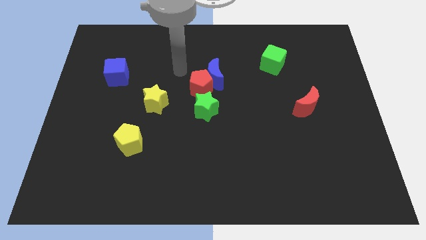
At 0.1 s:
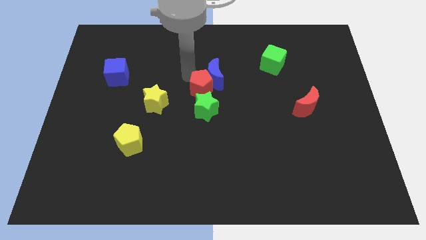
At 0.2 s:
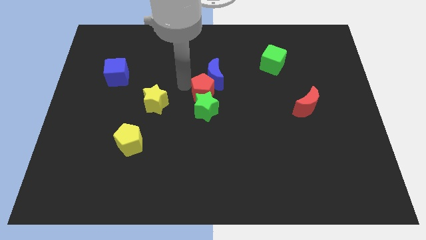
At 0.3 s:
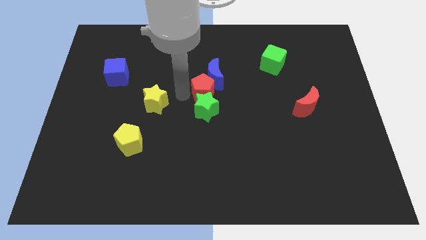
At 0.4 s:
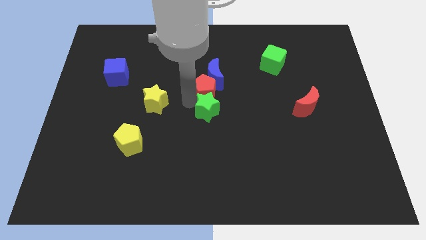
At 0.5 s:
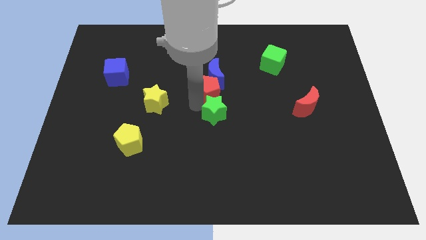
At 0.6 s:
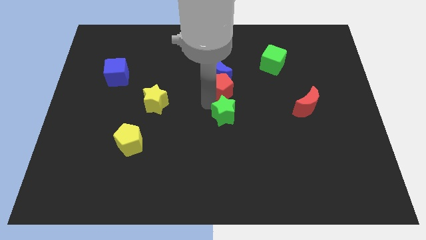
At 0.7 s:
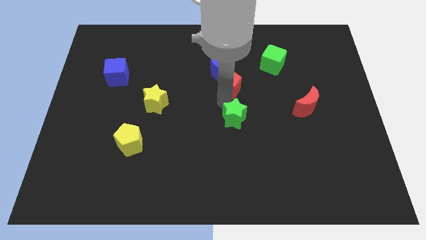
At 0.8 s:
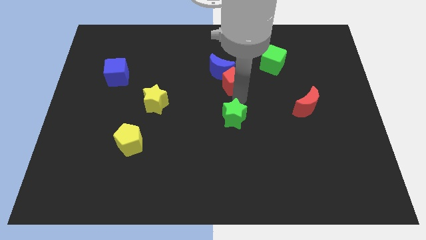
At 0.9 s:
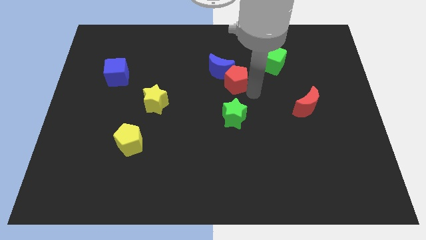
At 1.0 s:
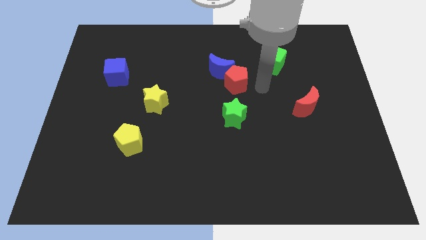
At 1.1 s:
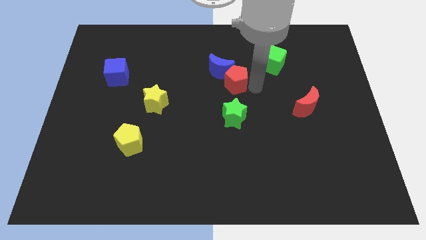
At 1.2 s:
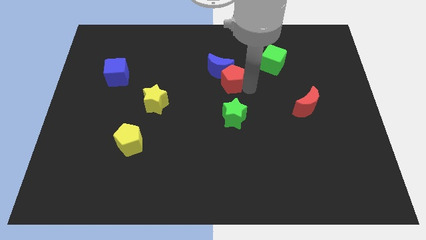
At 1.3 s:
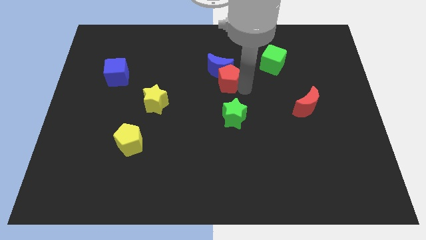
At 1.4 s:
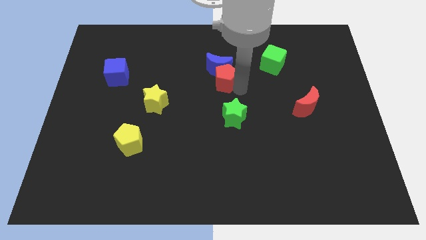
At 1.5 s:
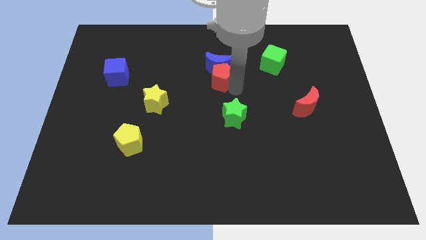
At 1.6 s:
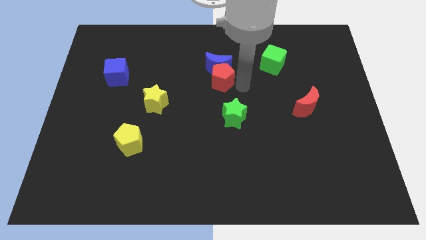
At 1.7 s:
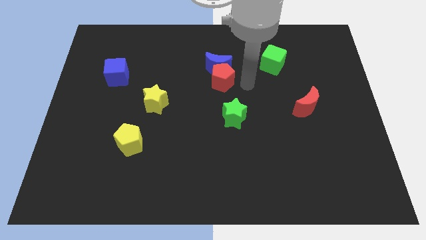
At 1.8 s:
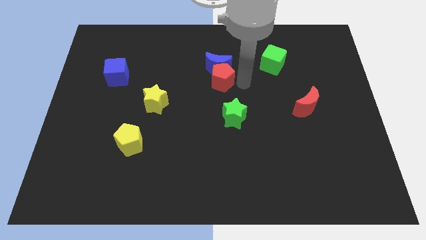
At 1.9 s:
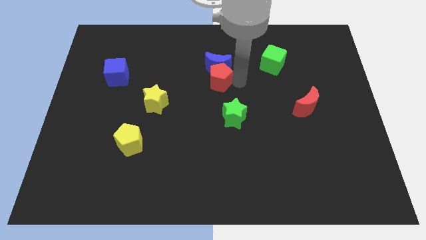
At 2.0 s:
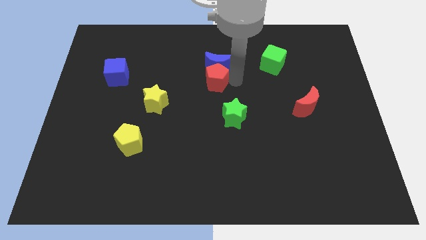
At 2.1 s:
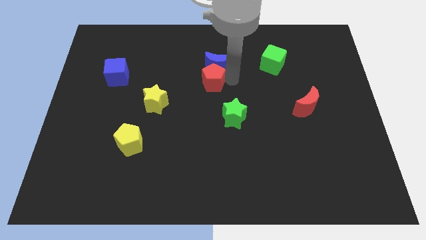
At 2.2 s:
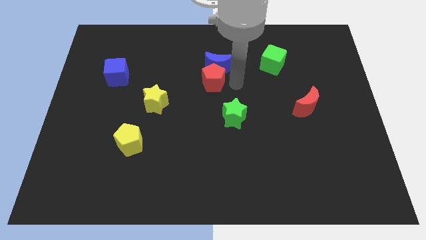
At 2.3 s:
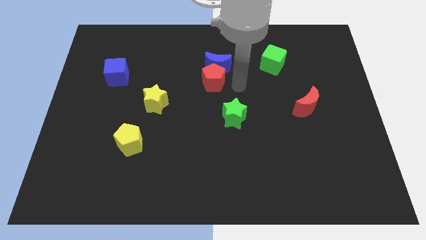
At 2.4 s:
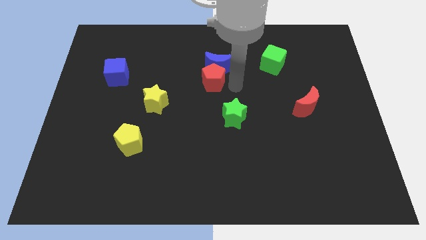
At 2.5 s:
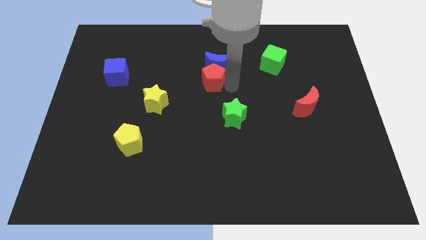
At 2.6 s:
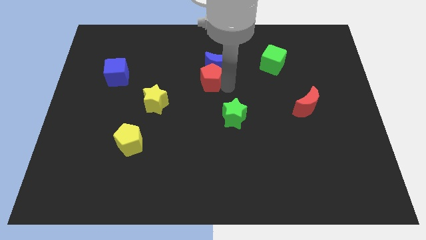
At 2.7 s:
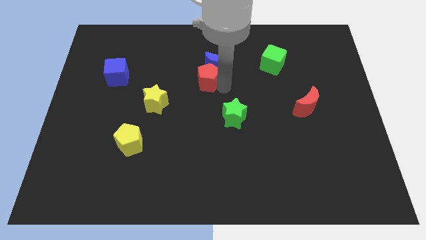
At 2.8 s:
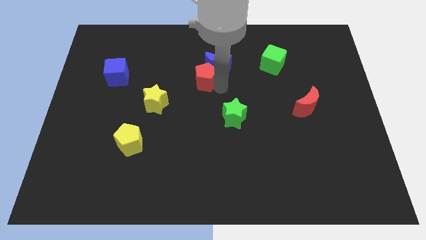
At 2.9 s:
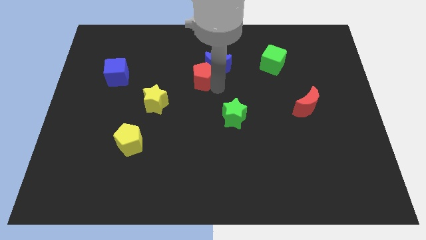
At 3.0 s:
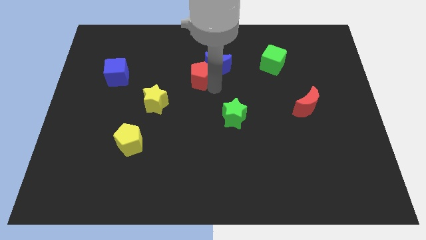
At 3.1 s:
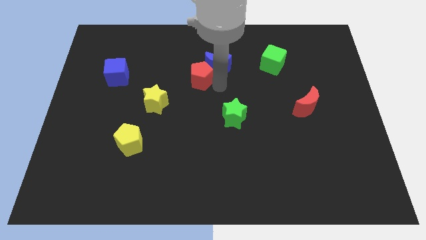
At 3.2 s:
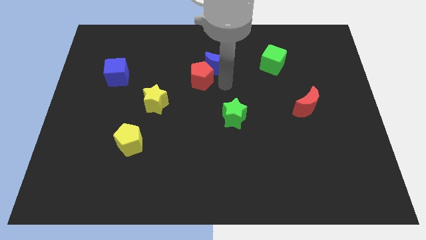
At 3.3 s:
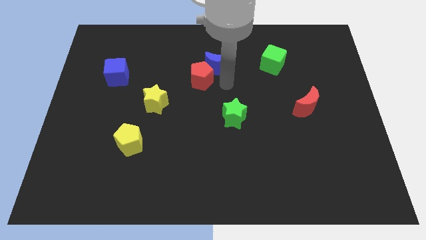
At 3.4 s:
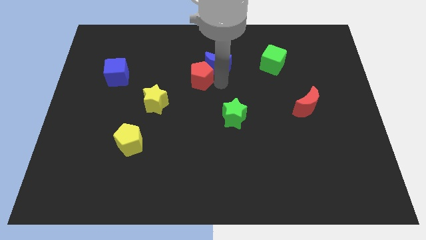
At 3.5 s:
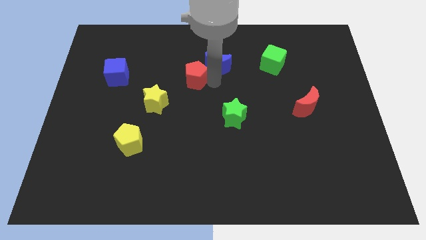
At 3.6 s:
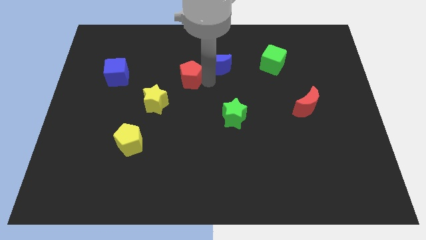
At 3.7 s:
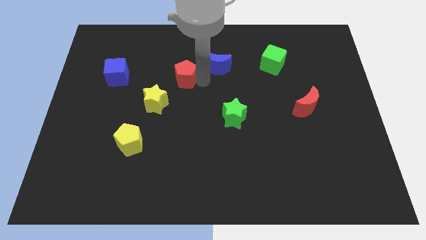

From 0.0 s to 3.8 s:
separate the red pentagon from the blue moon and green star

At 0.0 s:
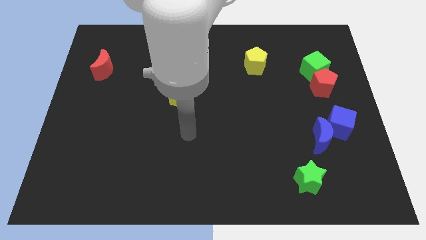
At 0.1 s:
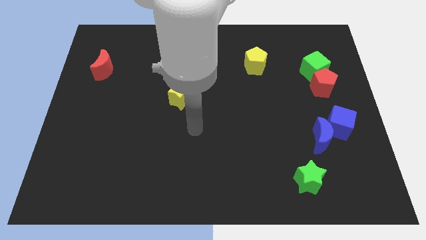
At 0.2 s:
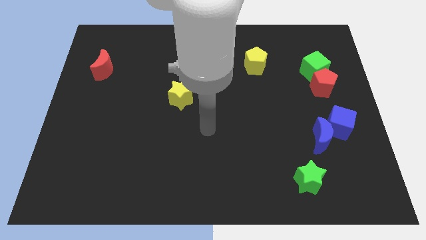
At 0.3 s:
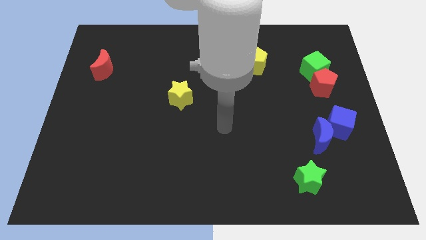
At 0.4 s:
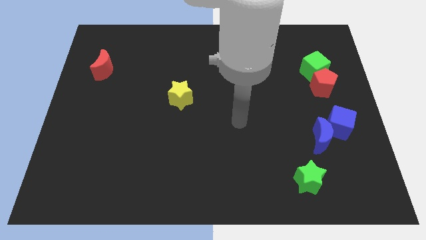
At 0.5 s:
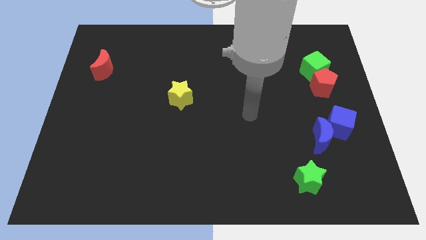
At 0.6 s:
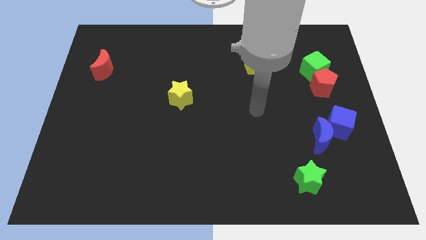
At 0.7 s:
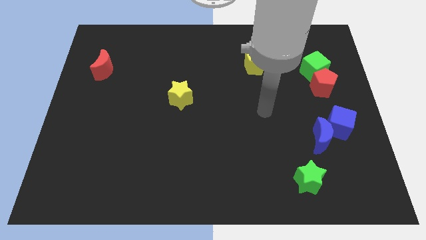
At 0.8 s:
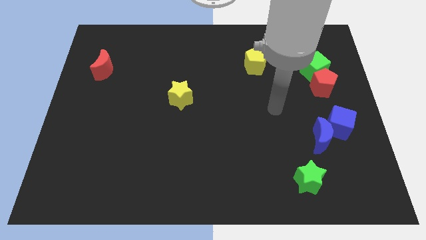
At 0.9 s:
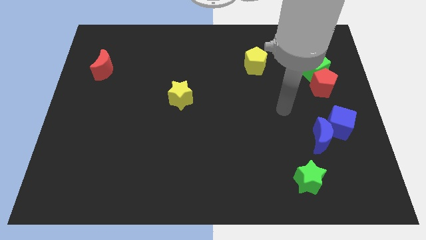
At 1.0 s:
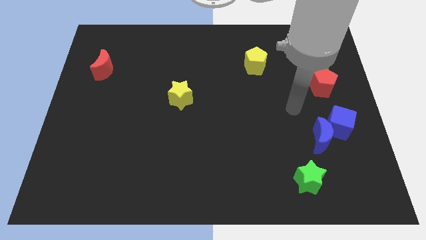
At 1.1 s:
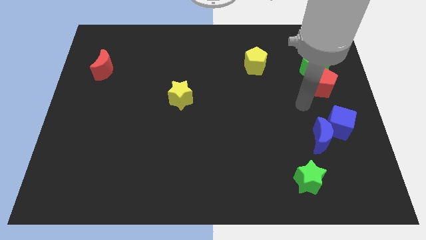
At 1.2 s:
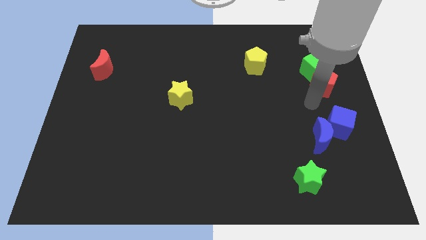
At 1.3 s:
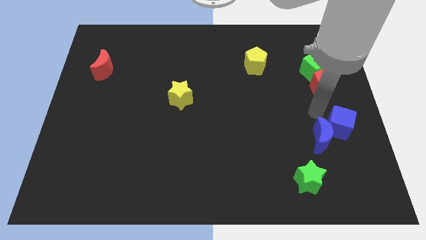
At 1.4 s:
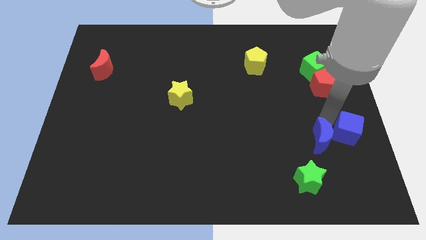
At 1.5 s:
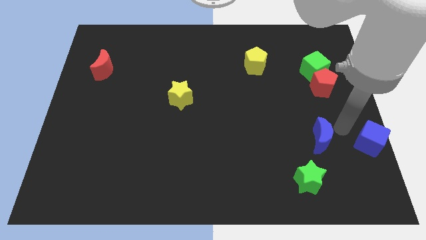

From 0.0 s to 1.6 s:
move the blue moon away from the blue cube

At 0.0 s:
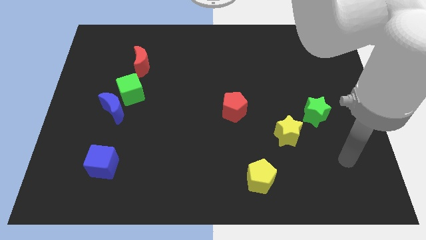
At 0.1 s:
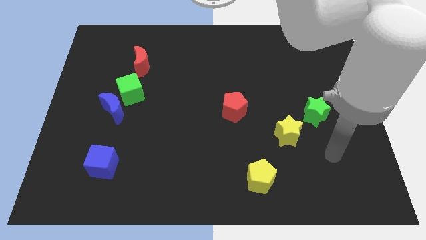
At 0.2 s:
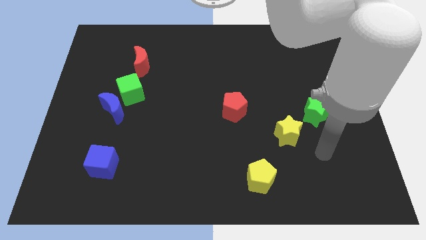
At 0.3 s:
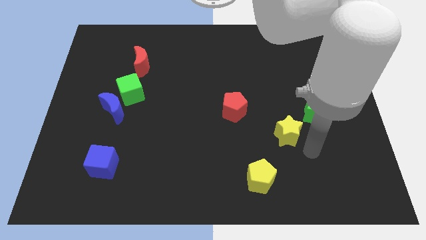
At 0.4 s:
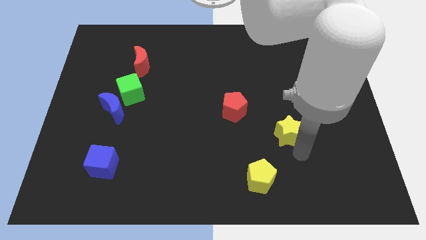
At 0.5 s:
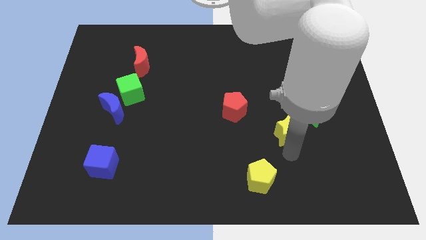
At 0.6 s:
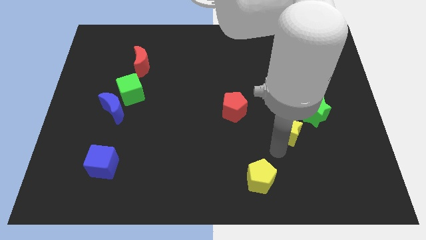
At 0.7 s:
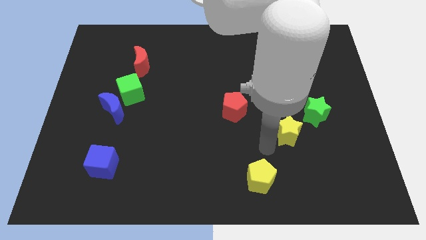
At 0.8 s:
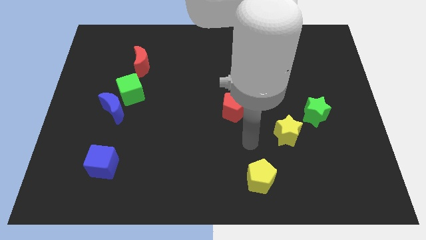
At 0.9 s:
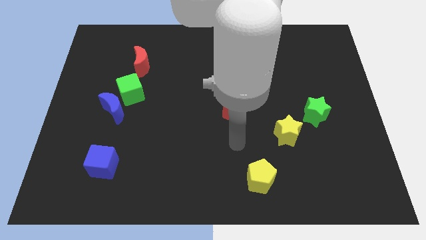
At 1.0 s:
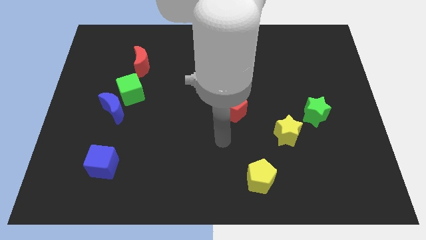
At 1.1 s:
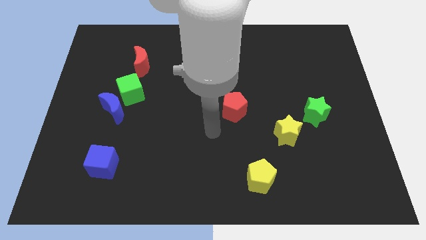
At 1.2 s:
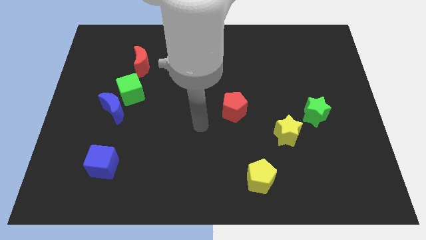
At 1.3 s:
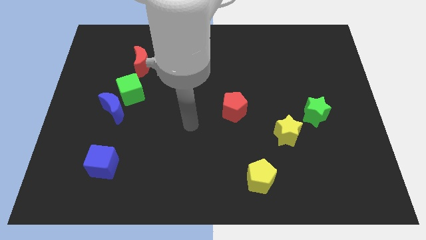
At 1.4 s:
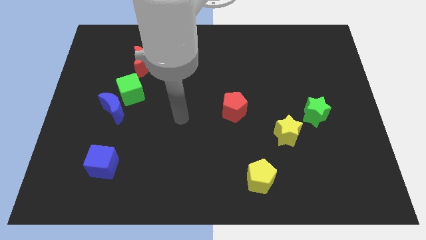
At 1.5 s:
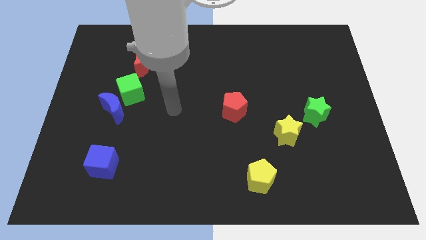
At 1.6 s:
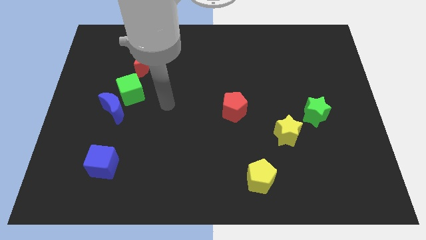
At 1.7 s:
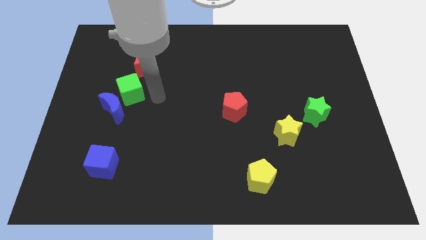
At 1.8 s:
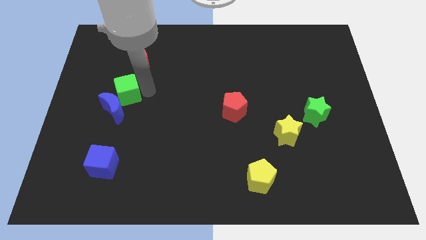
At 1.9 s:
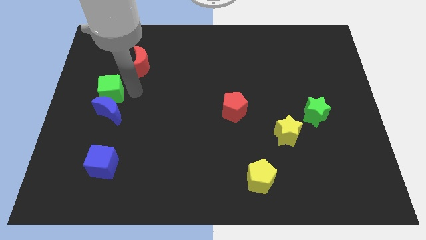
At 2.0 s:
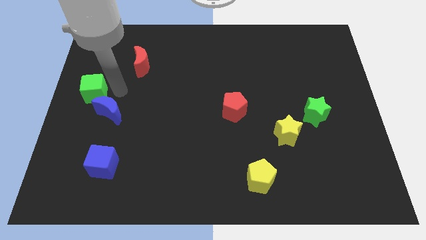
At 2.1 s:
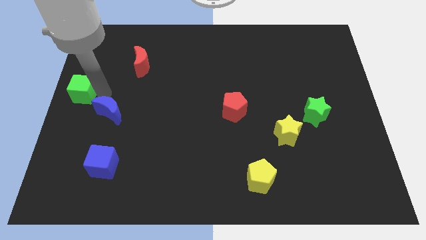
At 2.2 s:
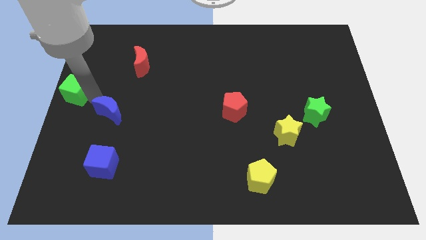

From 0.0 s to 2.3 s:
move the blue moon away from the green cube

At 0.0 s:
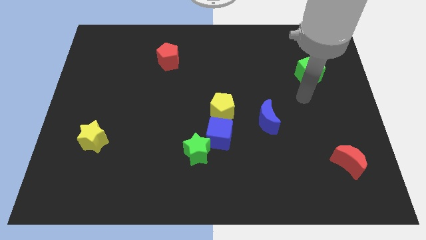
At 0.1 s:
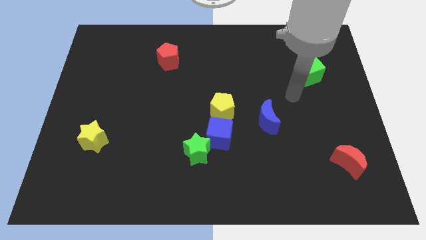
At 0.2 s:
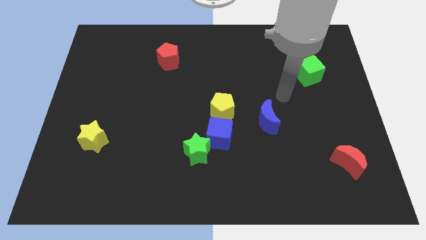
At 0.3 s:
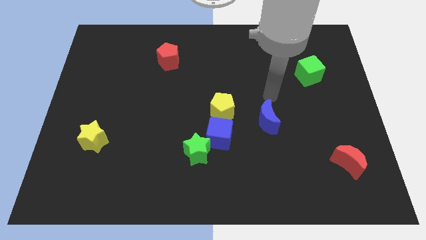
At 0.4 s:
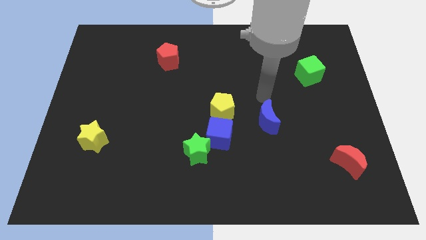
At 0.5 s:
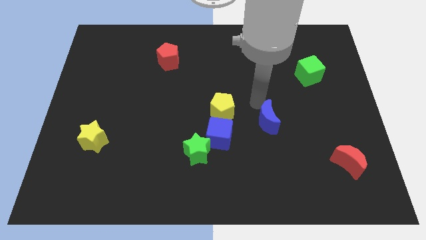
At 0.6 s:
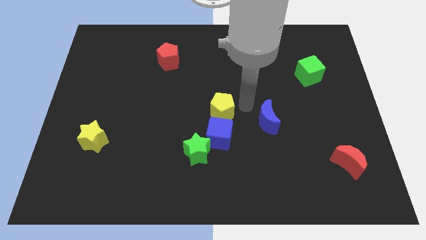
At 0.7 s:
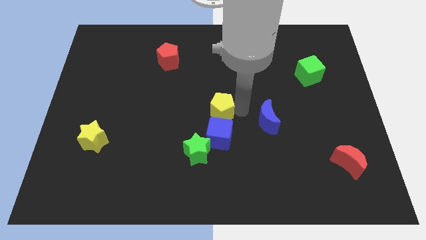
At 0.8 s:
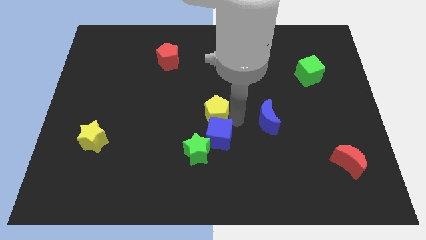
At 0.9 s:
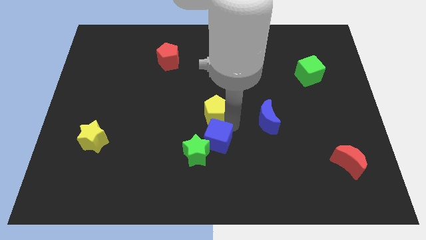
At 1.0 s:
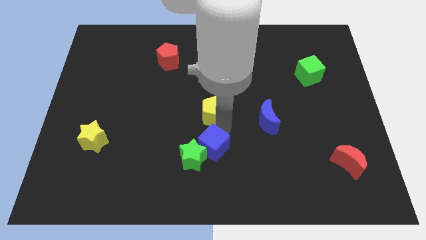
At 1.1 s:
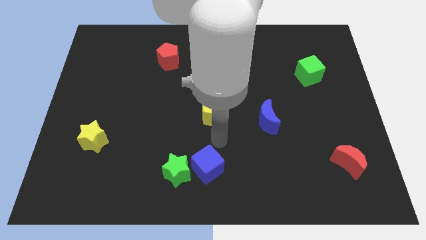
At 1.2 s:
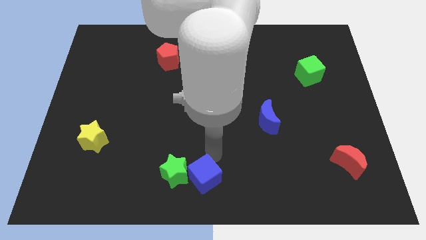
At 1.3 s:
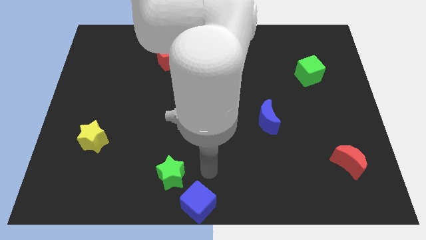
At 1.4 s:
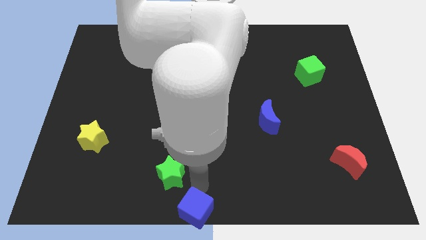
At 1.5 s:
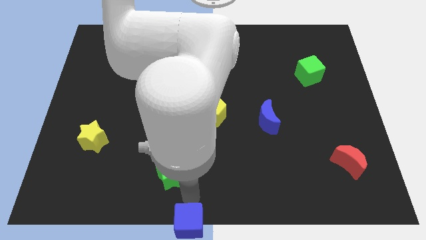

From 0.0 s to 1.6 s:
pull the green star apart from the blue cube
